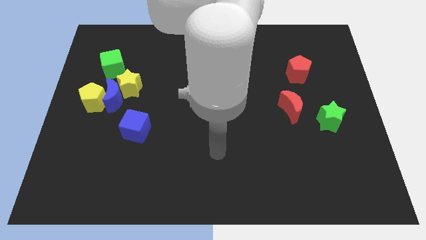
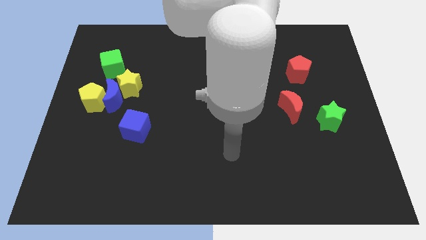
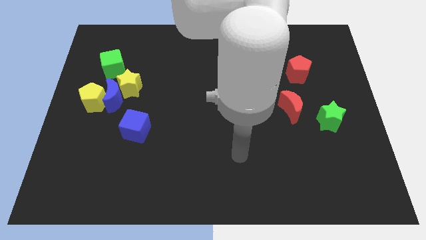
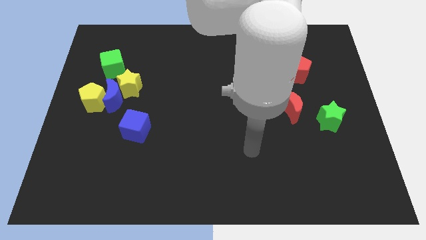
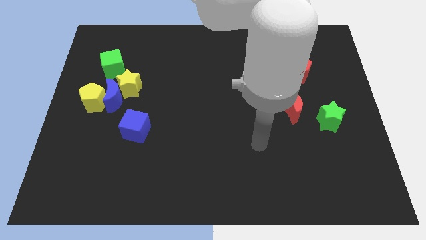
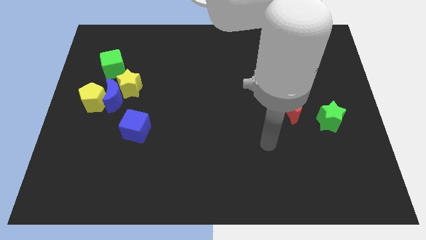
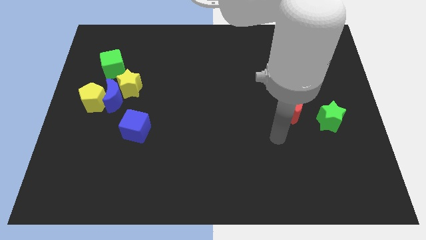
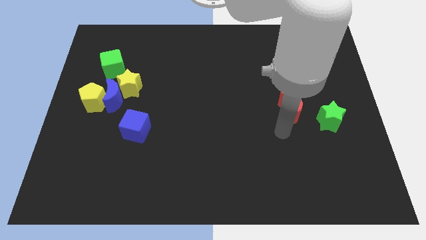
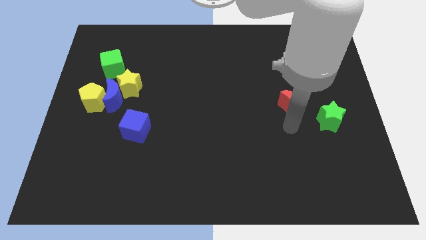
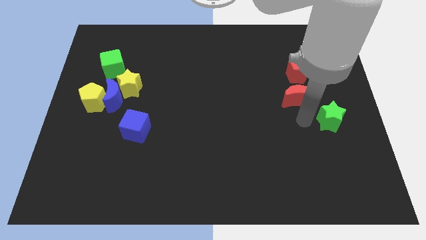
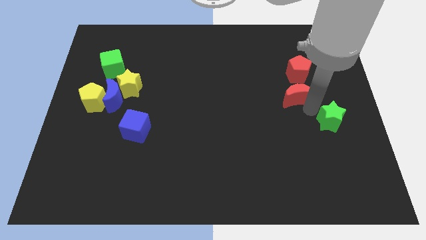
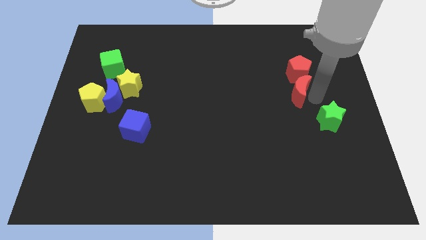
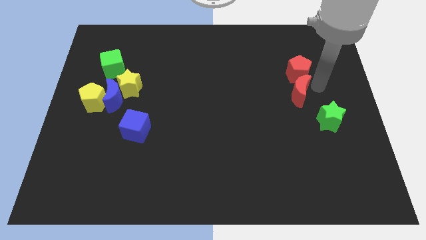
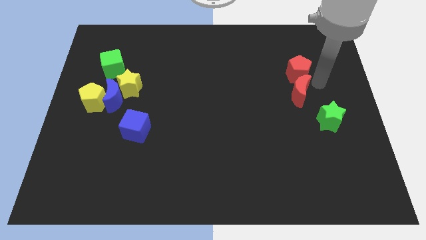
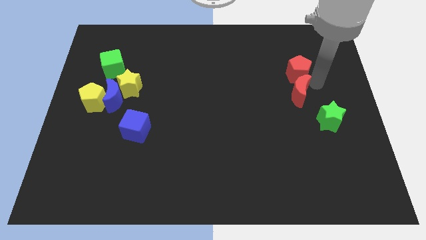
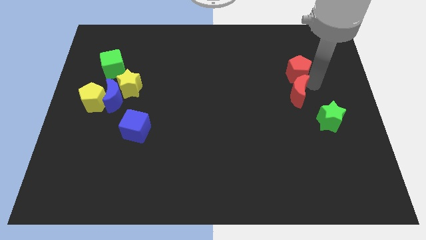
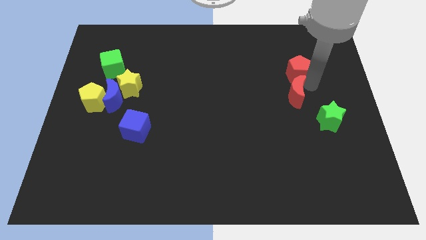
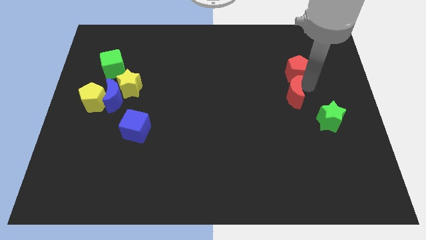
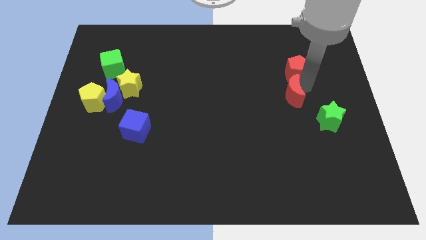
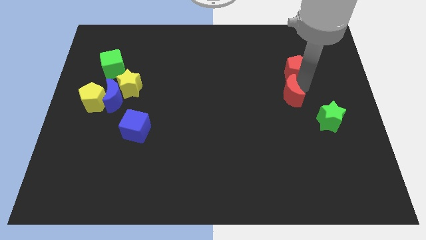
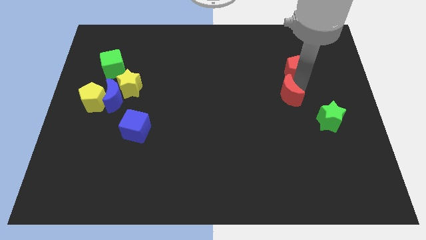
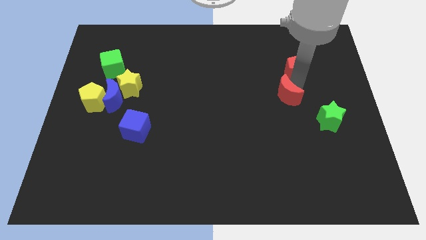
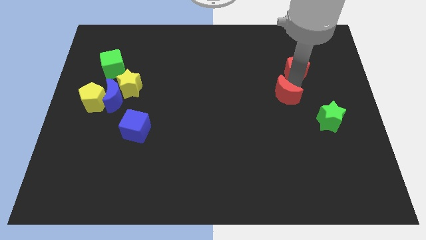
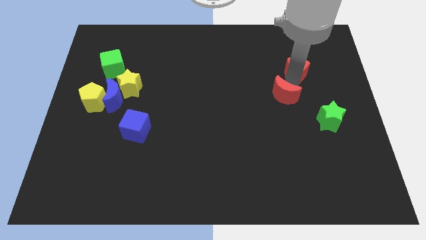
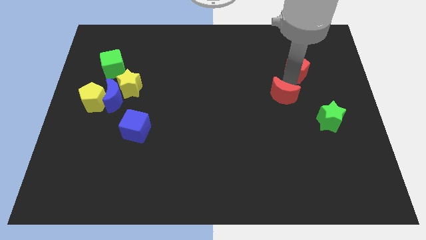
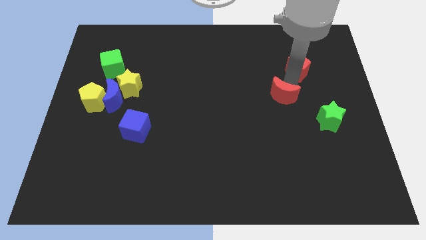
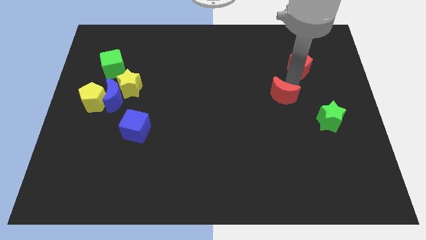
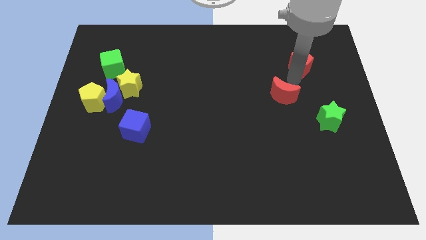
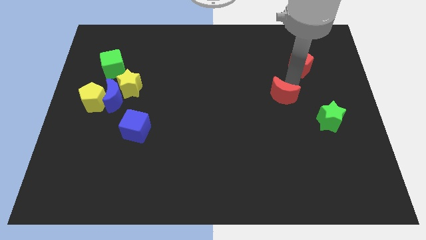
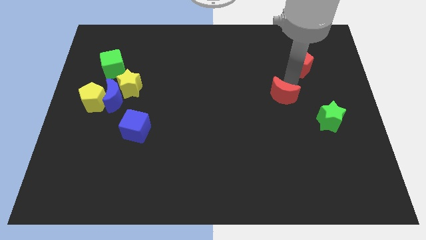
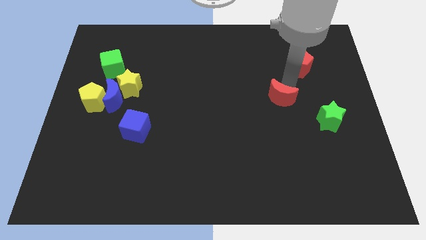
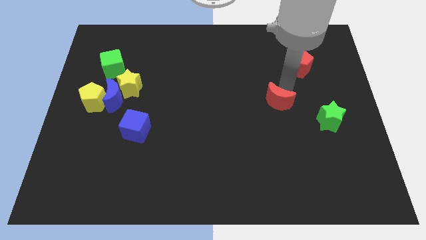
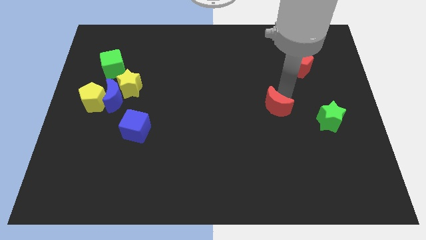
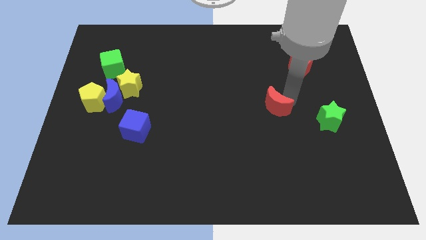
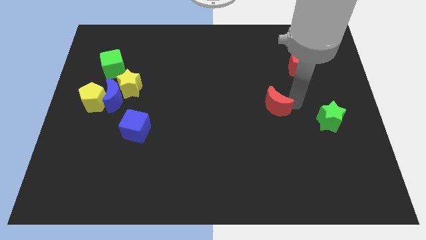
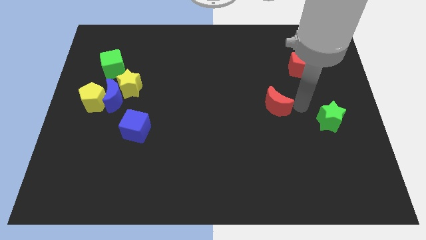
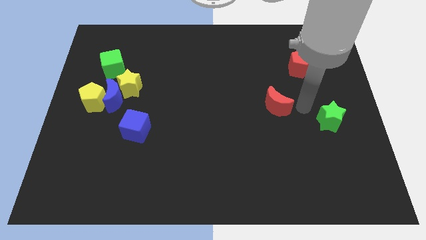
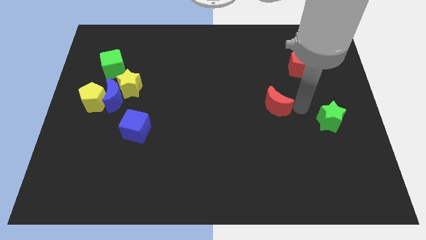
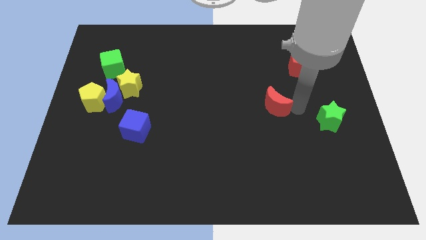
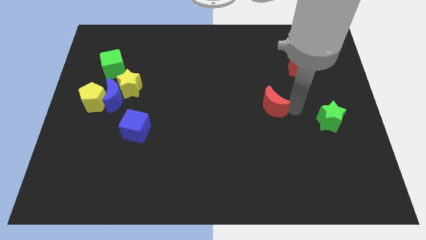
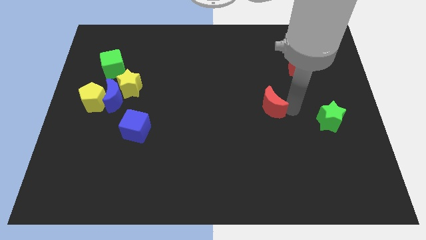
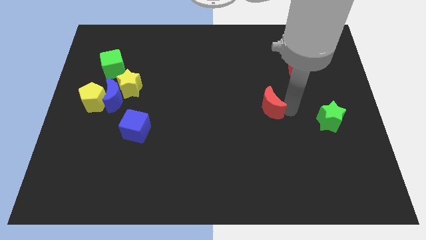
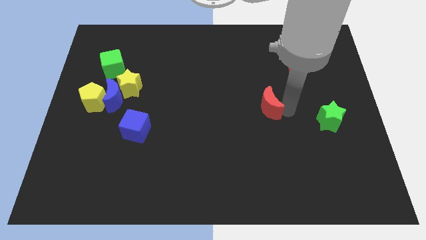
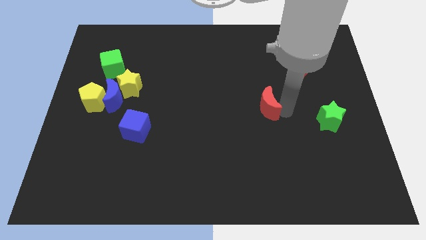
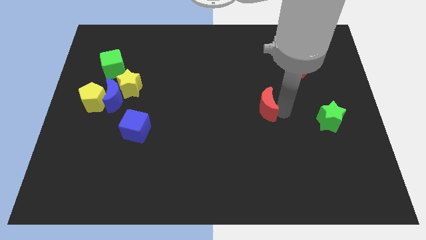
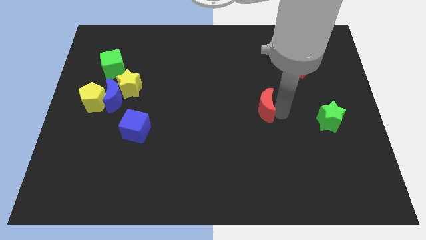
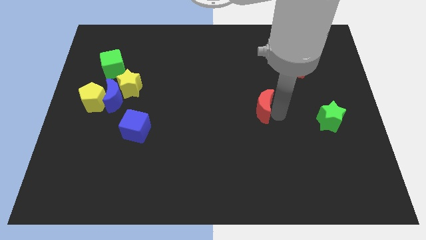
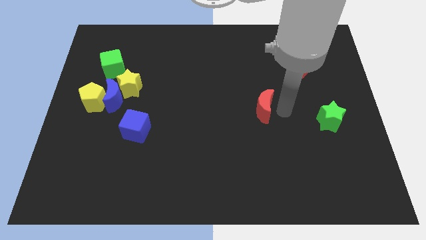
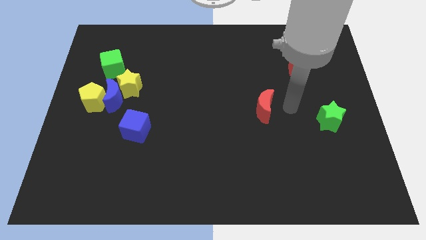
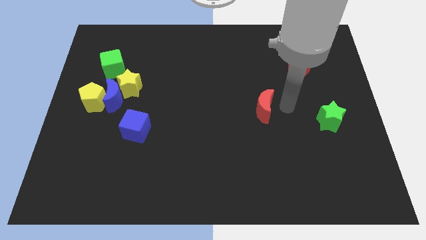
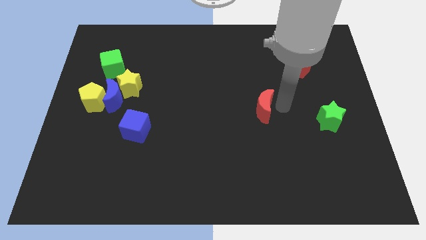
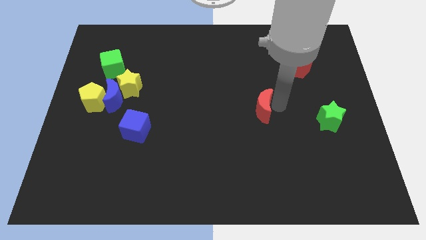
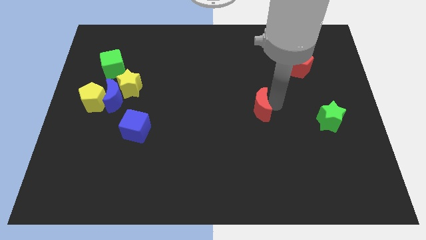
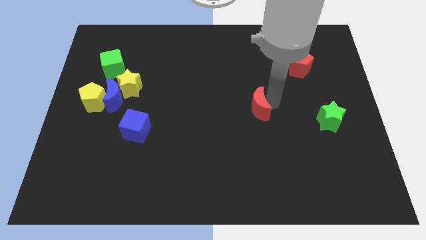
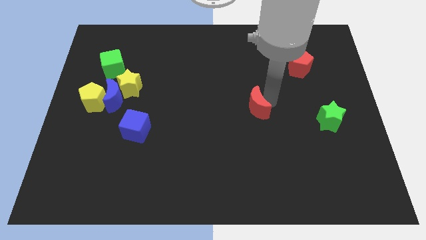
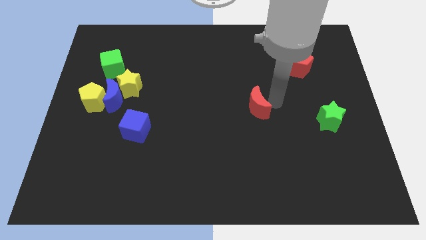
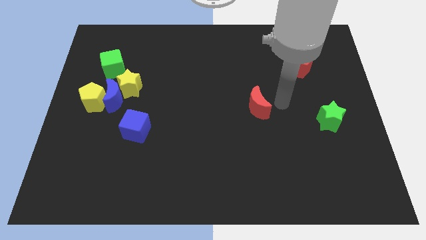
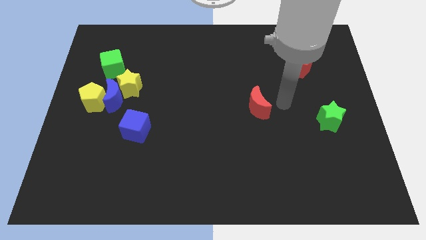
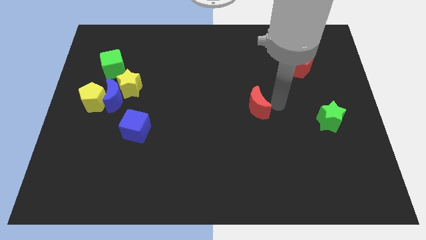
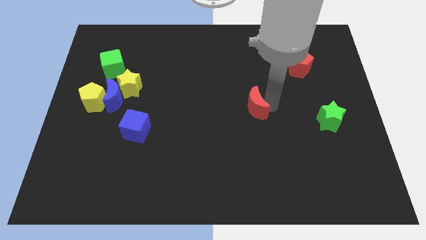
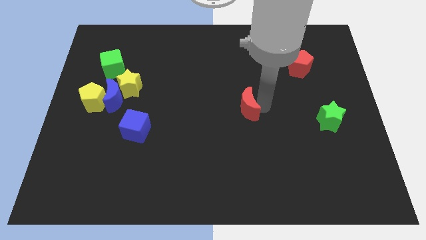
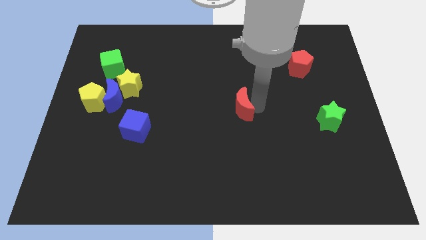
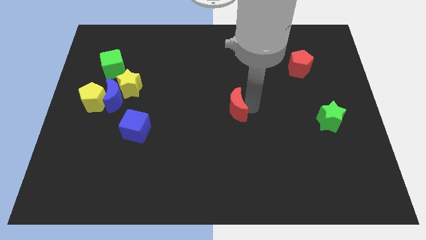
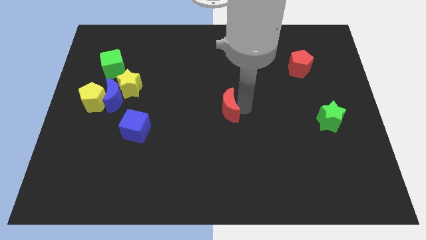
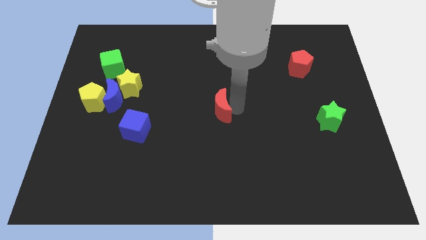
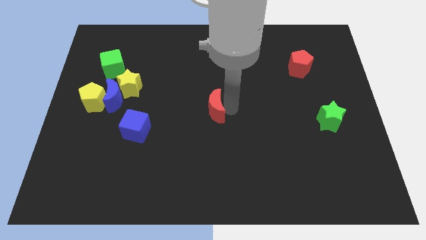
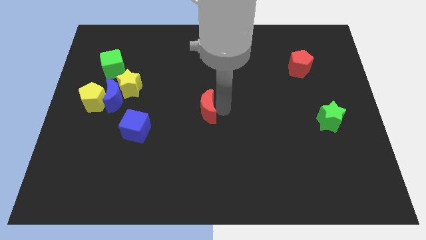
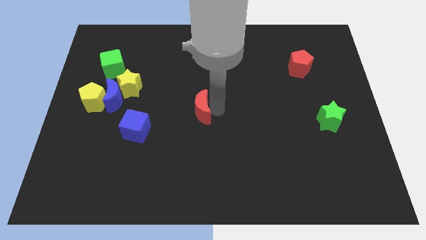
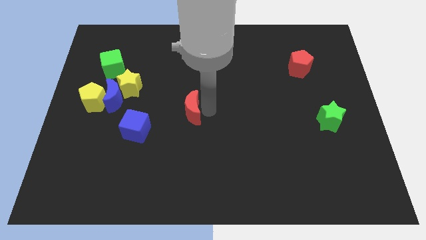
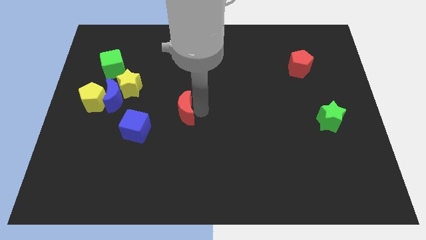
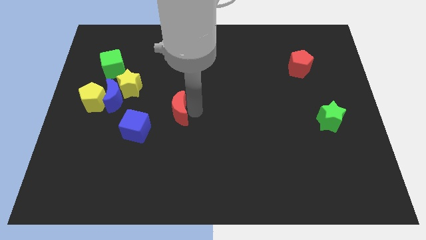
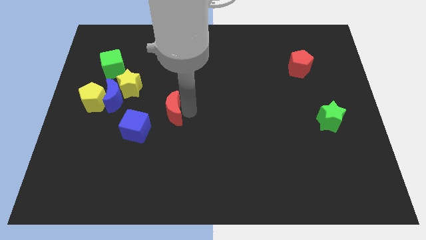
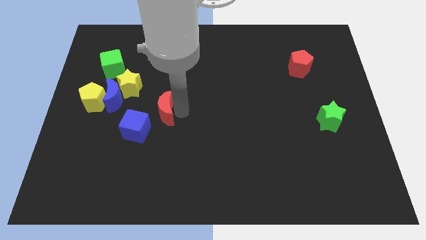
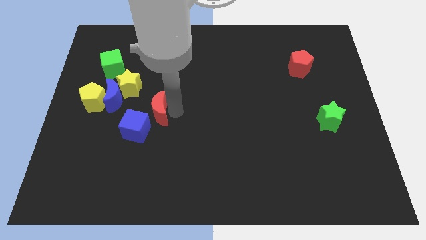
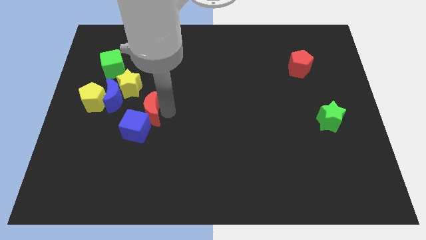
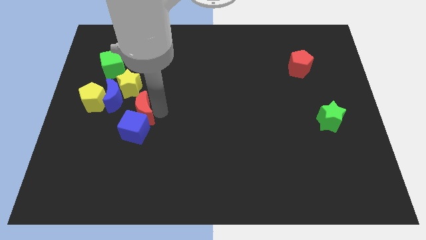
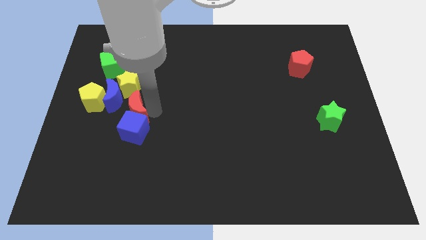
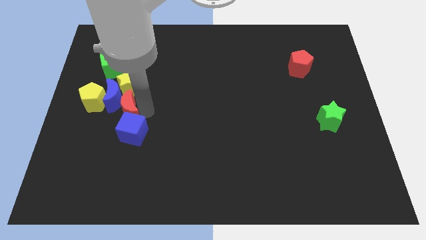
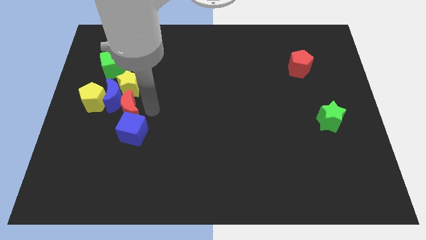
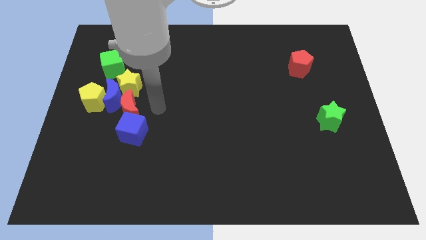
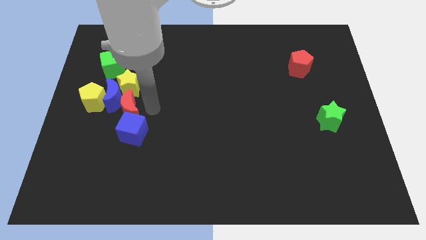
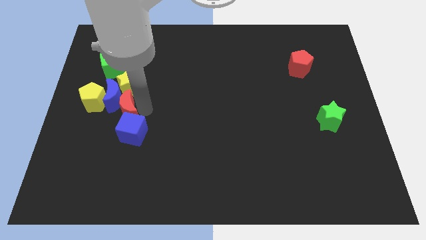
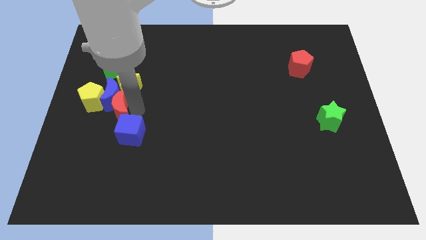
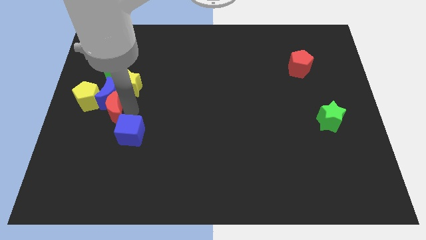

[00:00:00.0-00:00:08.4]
put the red moon to the bottom left side of the blue moon
